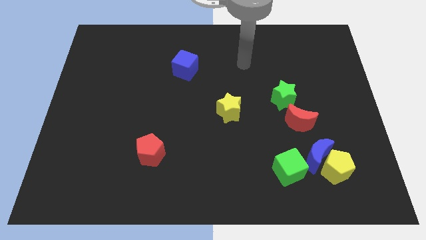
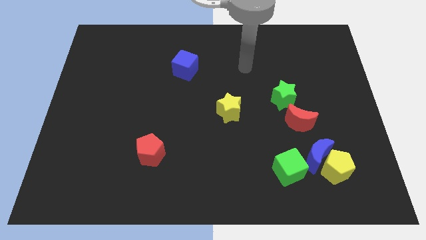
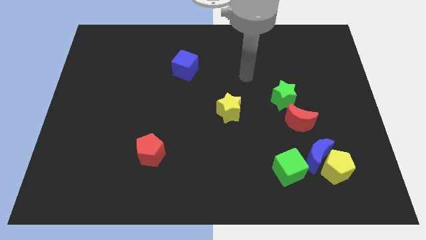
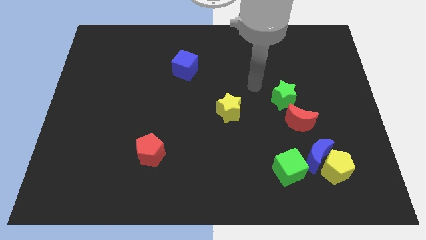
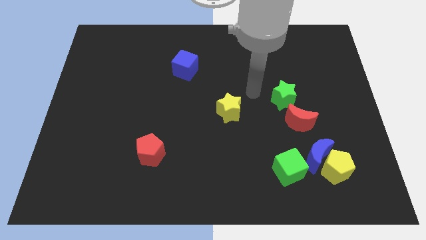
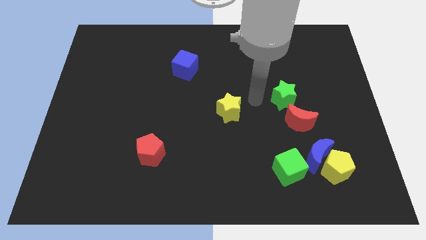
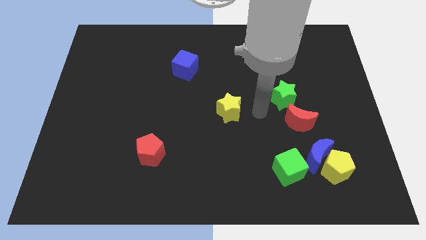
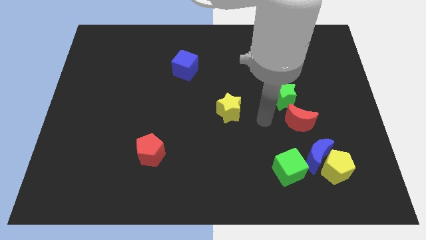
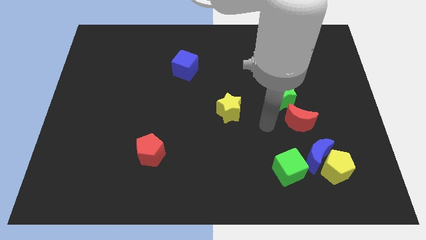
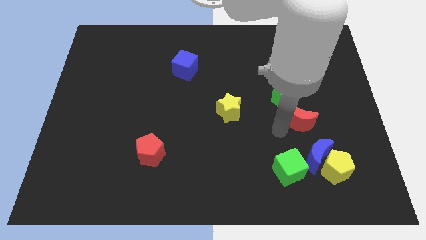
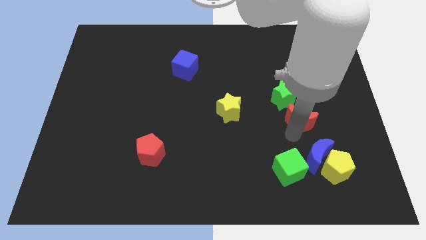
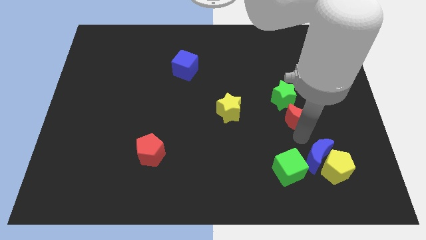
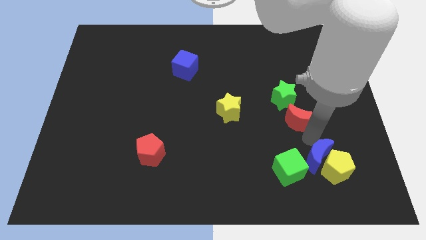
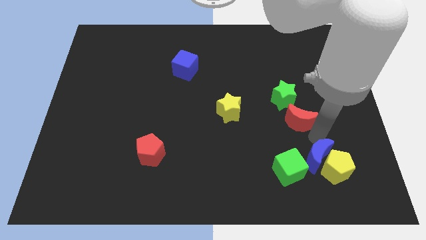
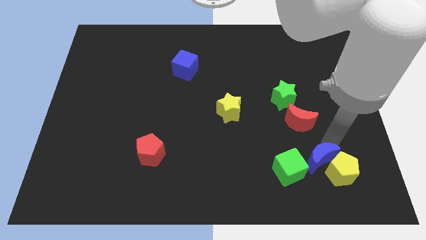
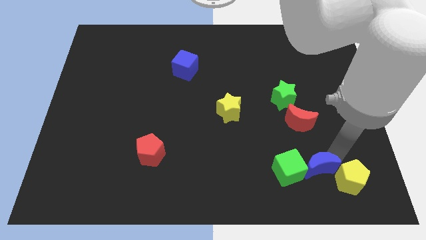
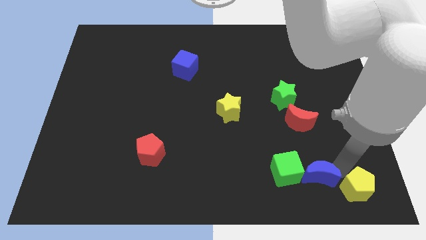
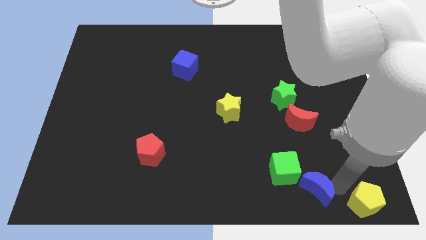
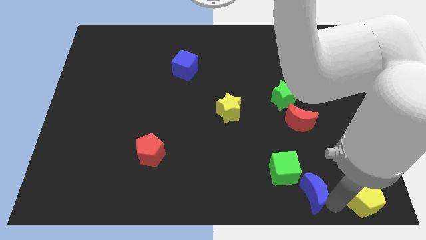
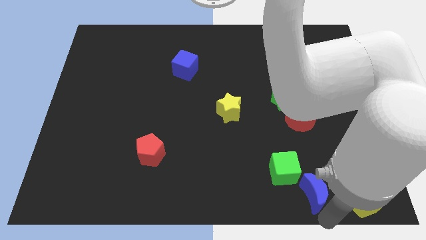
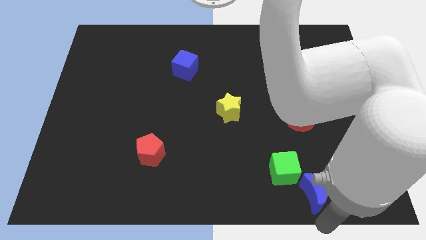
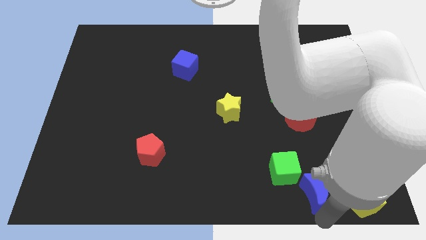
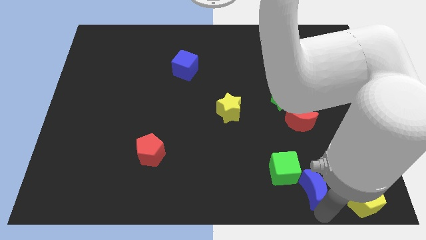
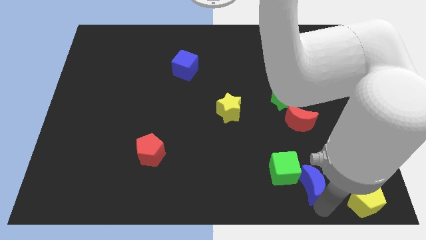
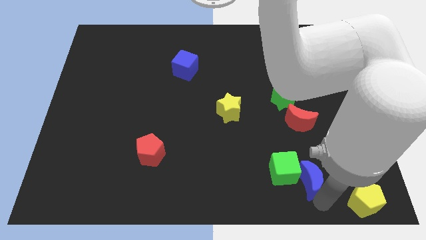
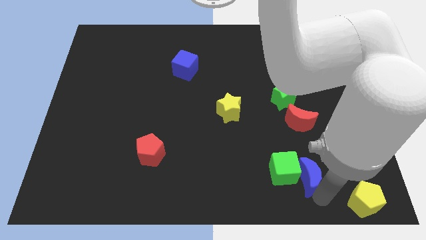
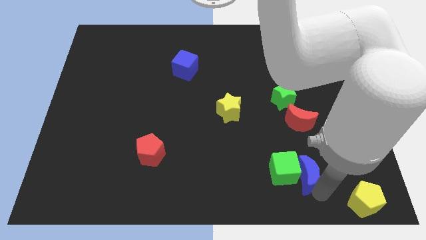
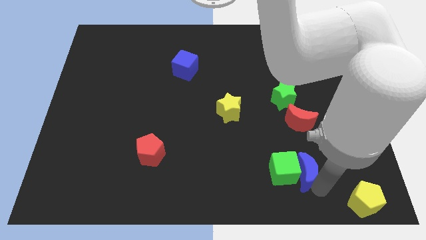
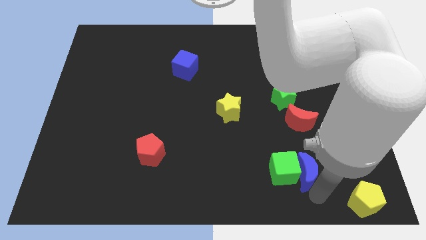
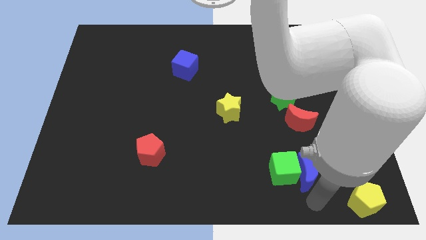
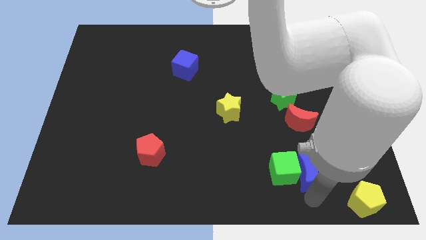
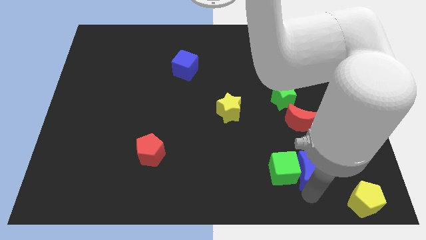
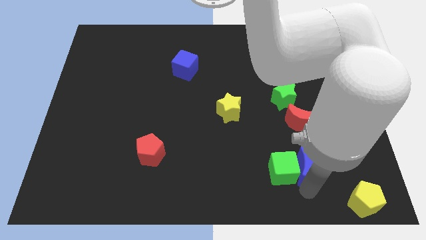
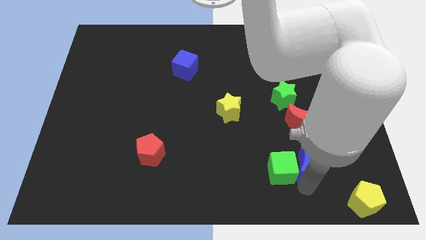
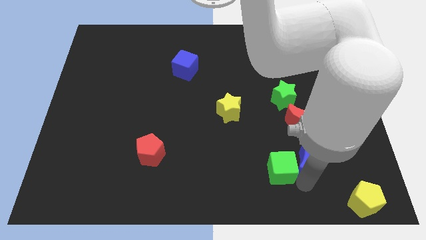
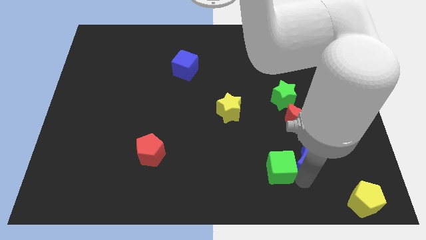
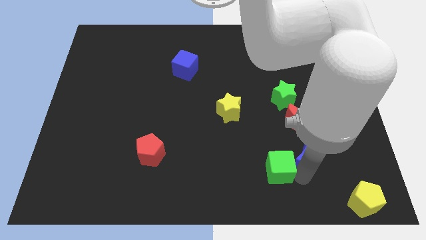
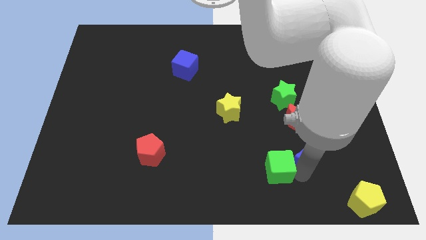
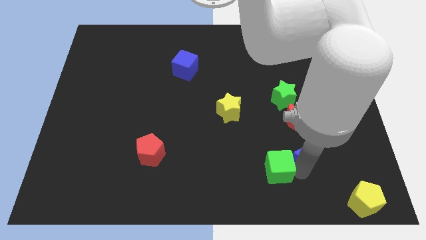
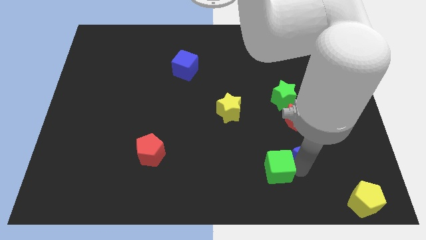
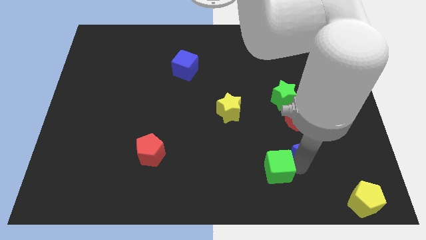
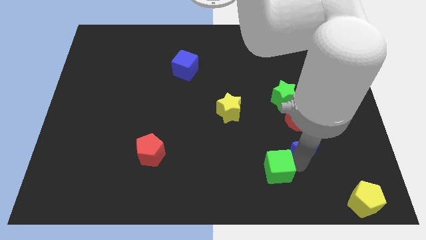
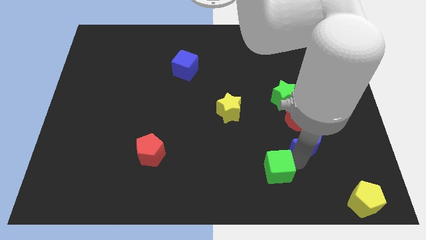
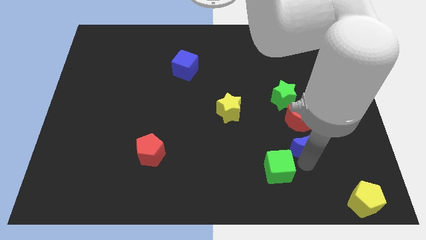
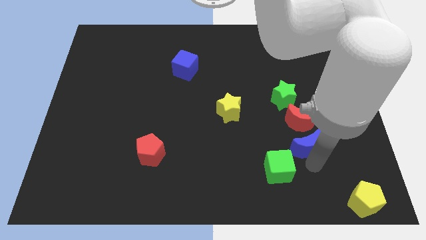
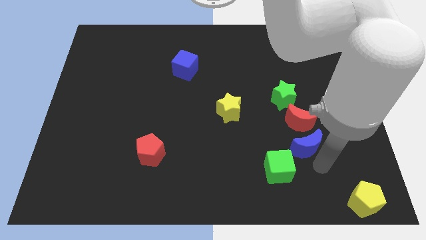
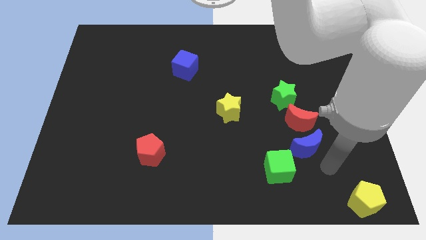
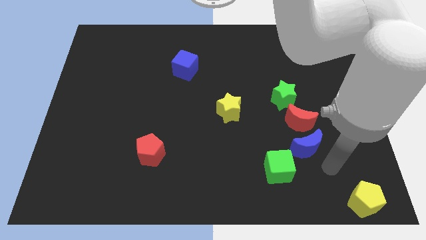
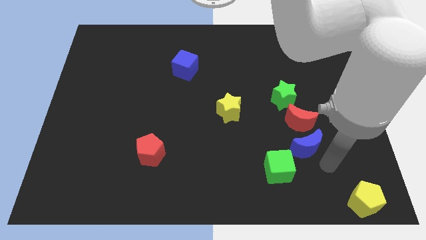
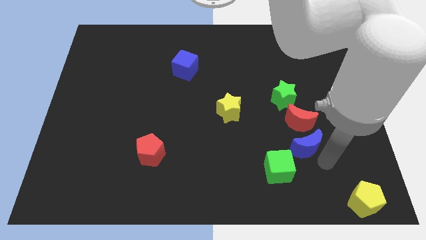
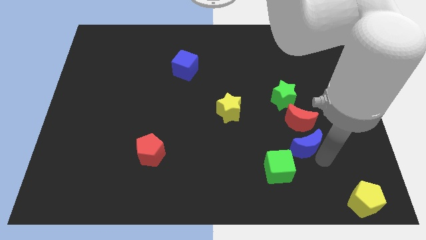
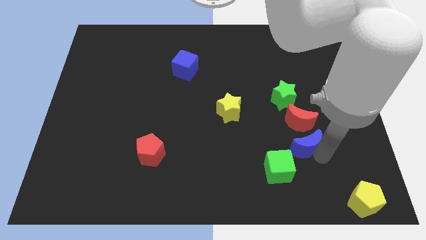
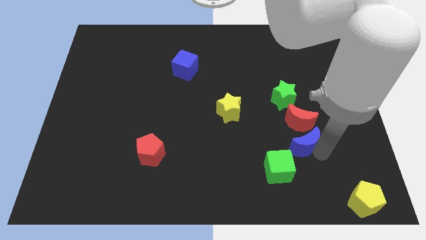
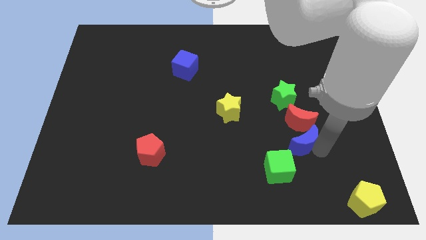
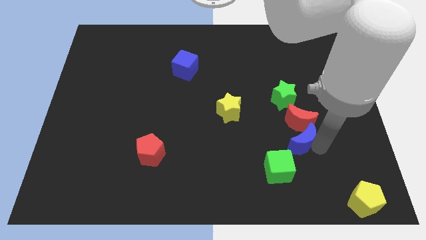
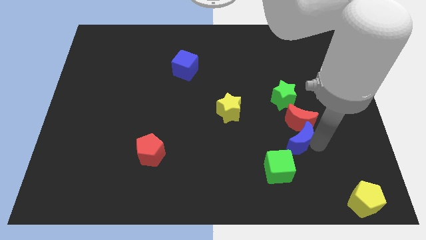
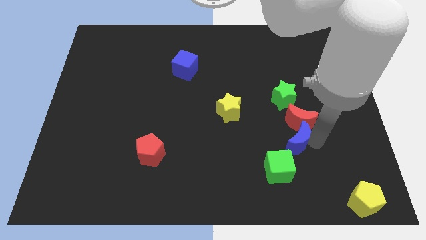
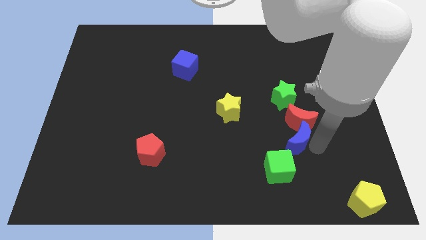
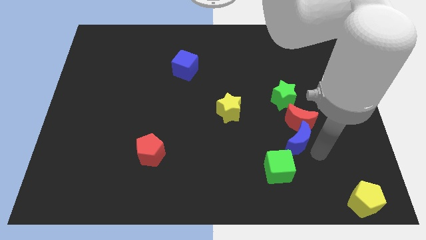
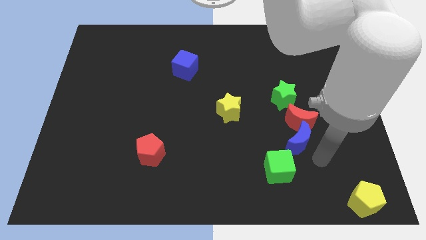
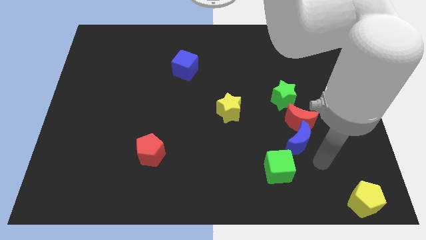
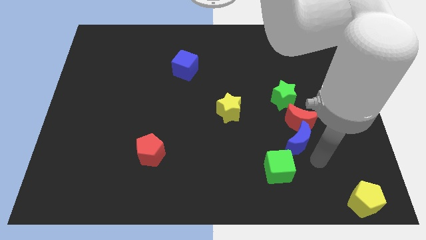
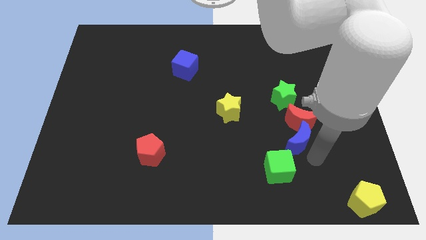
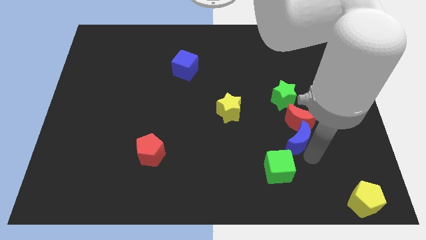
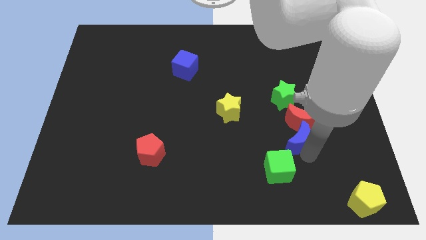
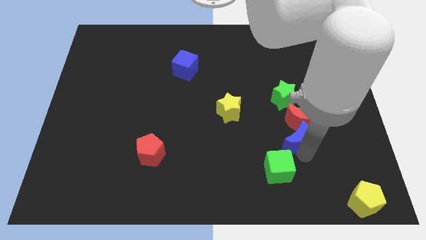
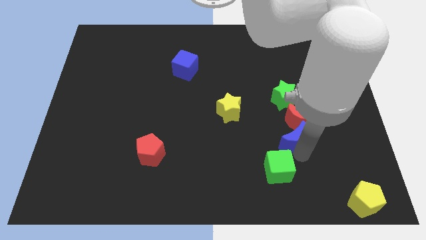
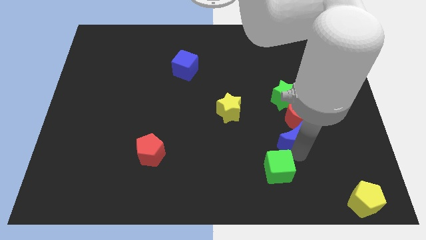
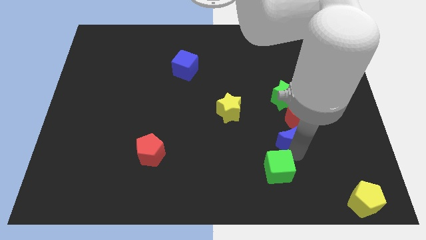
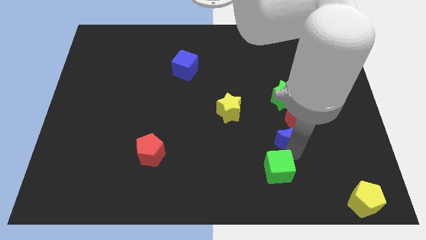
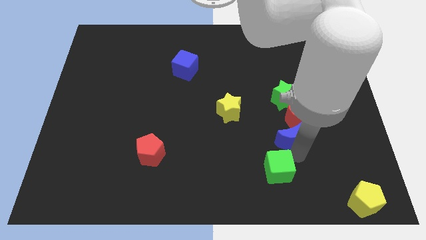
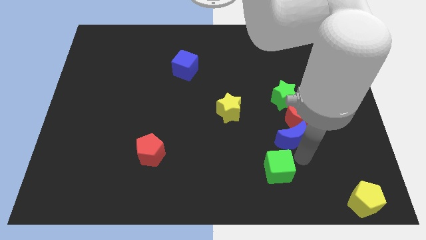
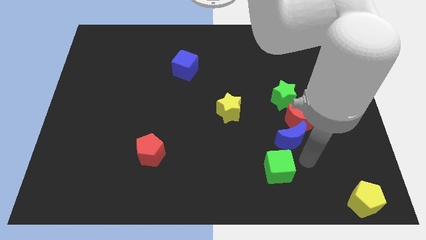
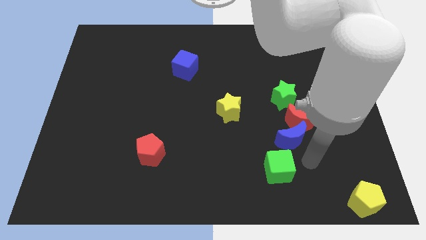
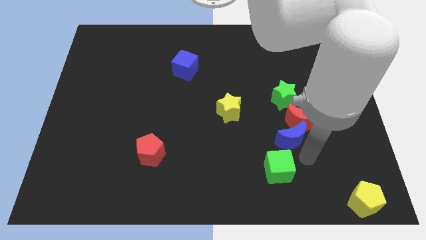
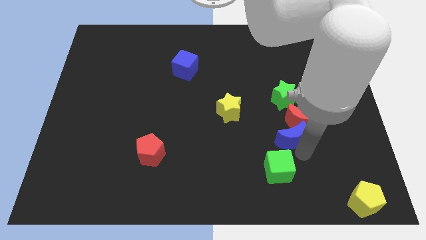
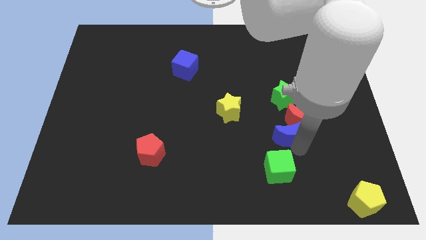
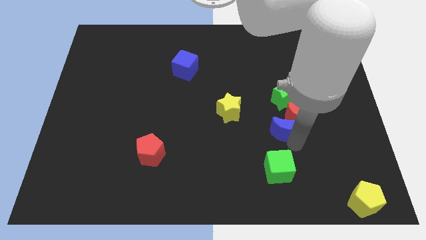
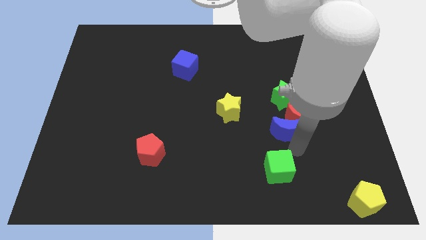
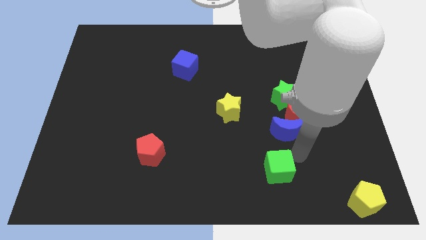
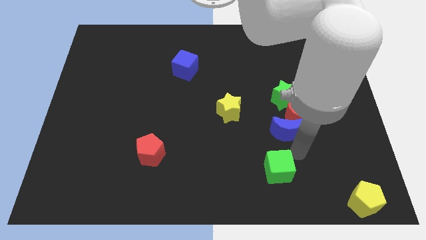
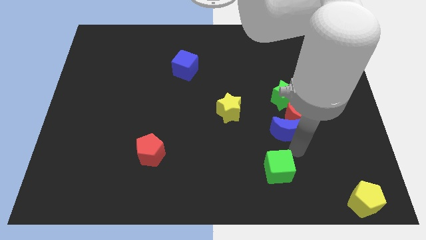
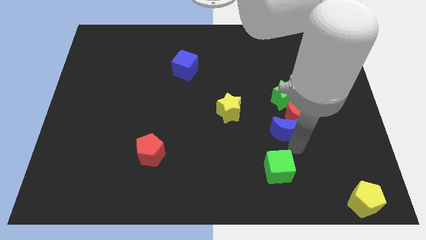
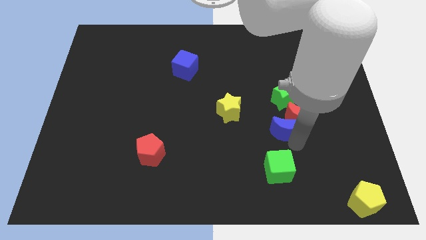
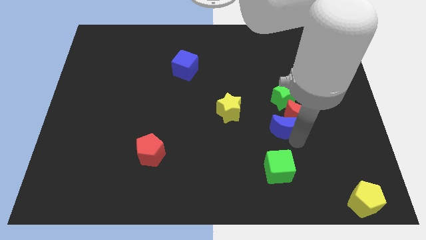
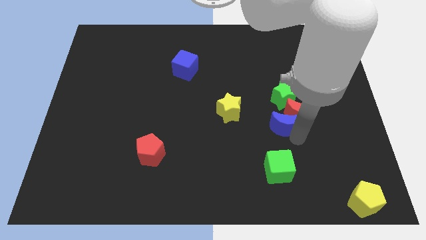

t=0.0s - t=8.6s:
push the blue moon to the right side of the yellow star
